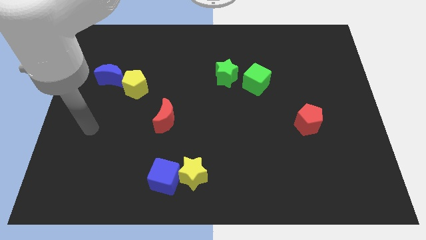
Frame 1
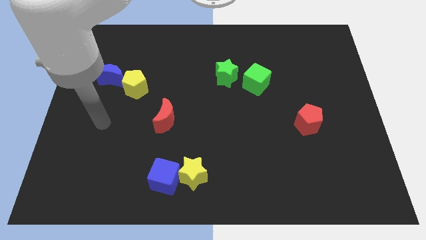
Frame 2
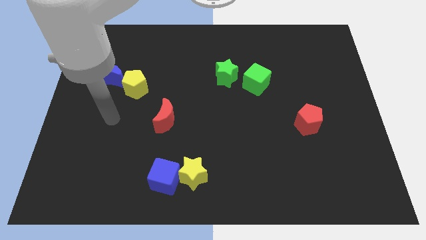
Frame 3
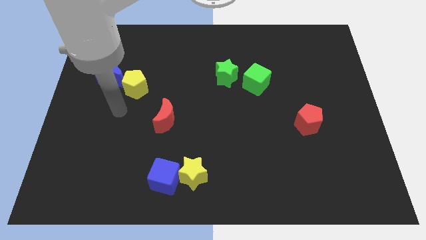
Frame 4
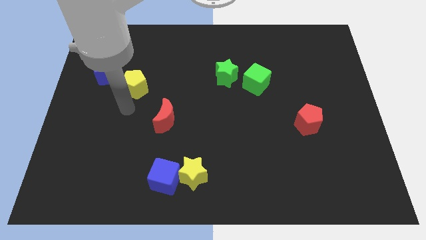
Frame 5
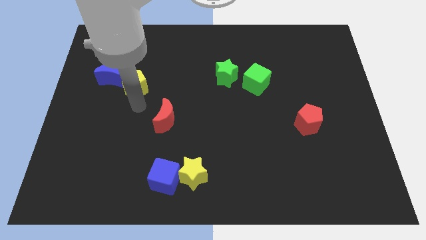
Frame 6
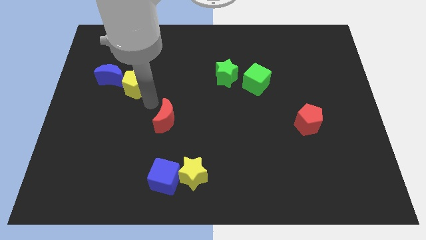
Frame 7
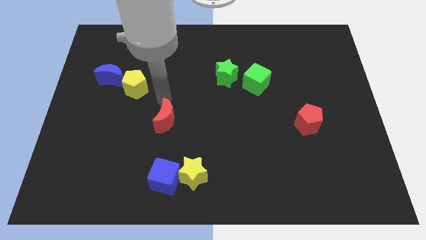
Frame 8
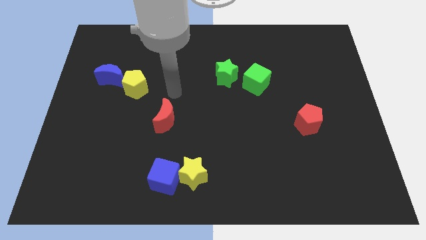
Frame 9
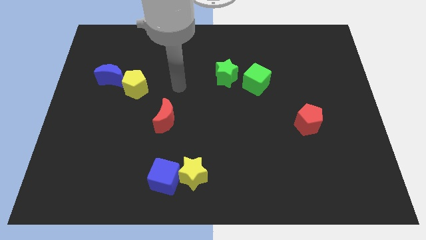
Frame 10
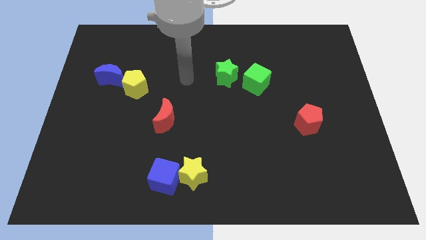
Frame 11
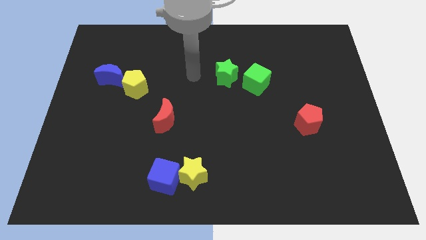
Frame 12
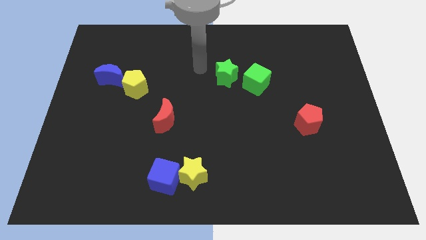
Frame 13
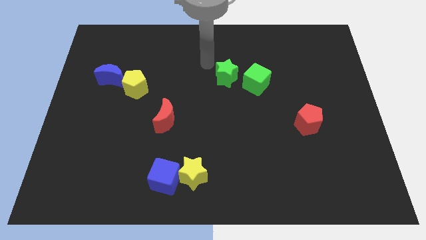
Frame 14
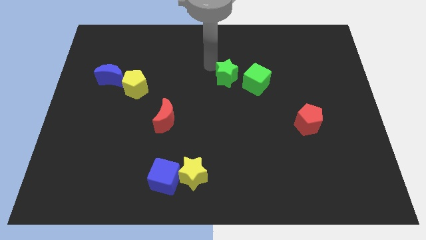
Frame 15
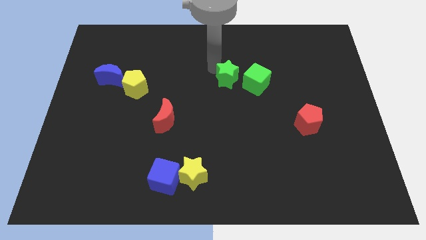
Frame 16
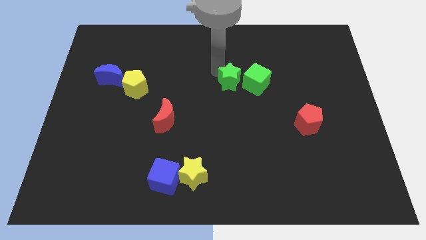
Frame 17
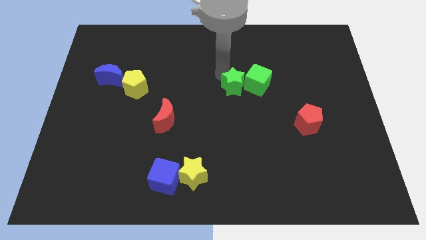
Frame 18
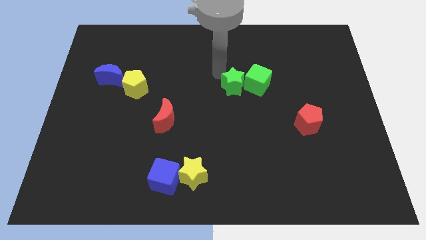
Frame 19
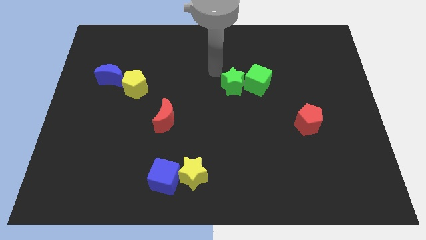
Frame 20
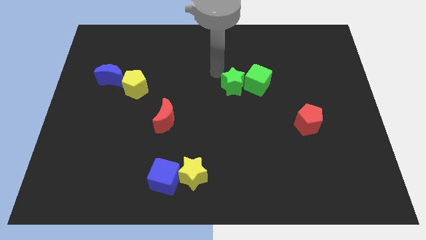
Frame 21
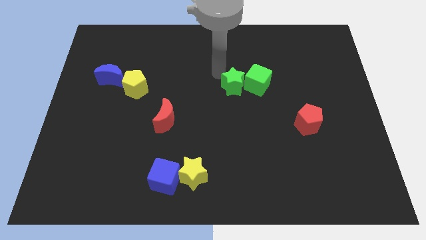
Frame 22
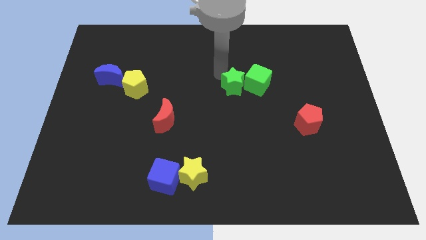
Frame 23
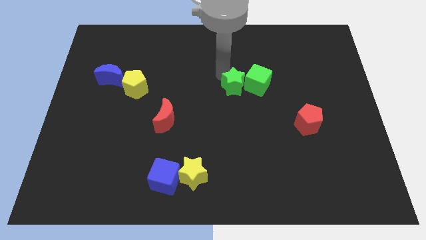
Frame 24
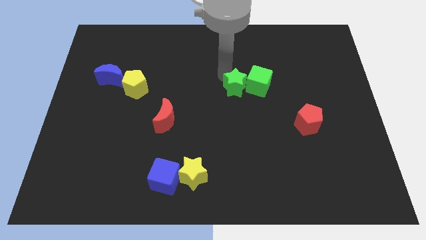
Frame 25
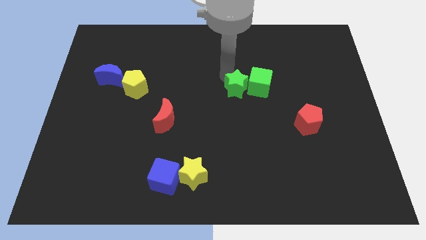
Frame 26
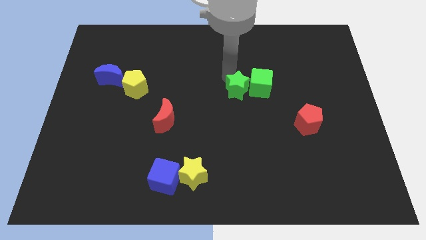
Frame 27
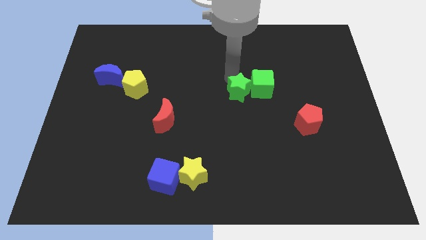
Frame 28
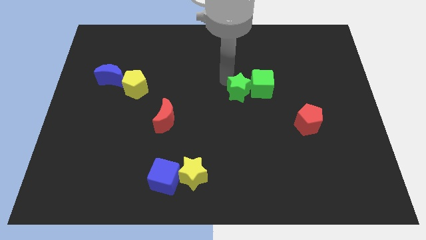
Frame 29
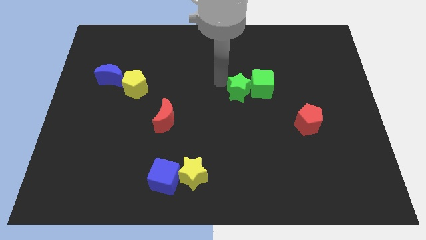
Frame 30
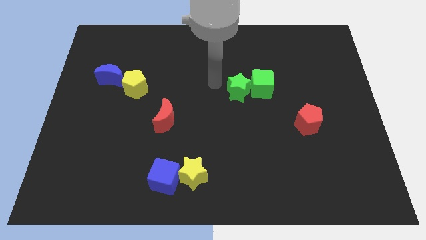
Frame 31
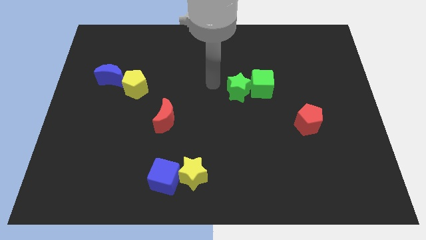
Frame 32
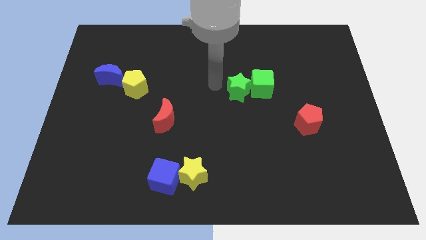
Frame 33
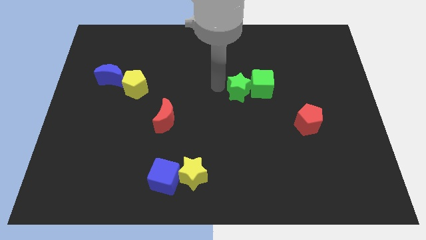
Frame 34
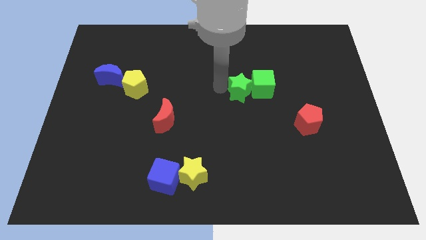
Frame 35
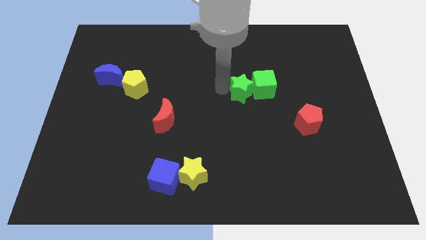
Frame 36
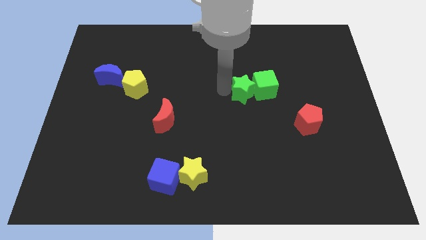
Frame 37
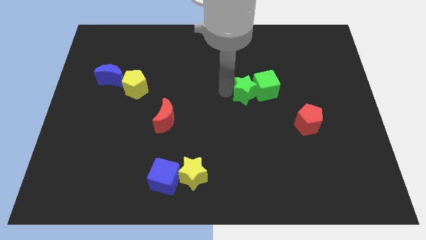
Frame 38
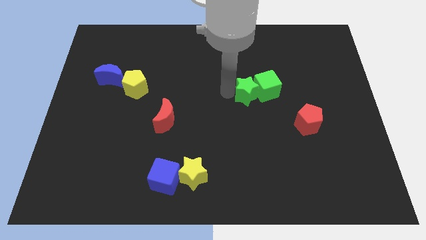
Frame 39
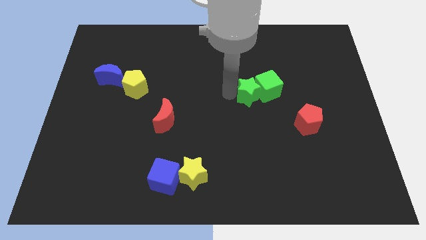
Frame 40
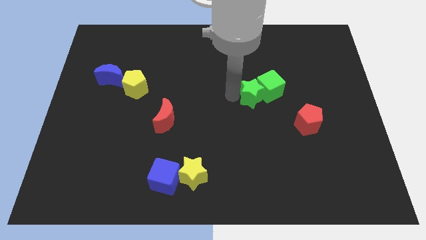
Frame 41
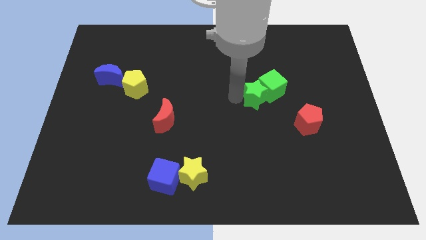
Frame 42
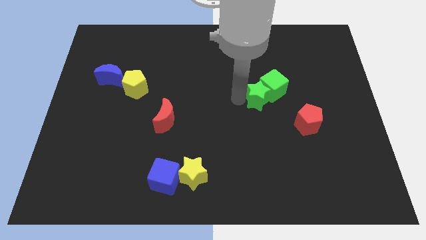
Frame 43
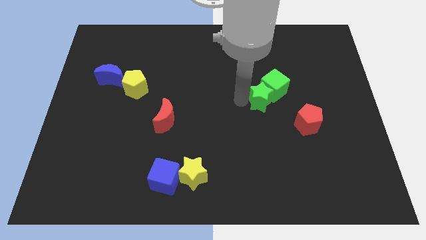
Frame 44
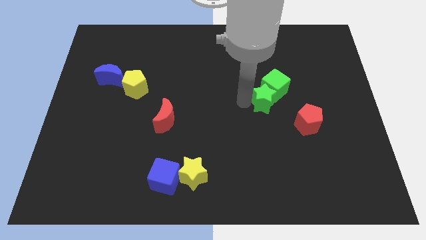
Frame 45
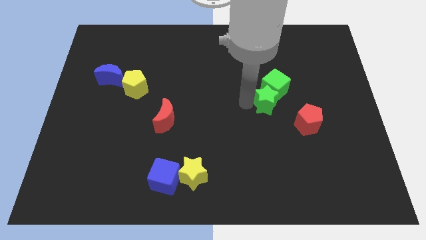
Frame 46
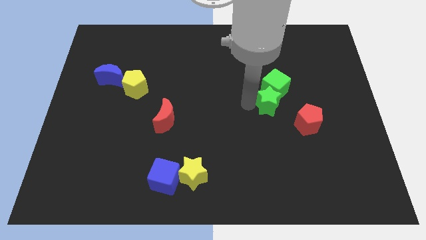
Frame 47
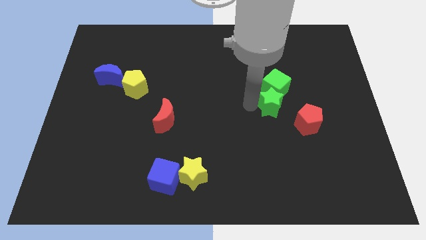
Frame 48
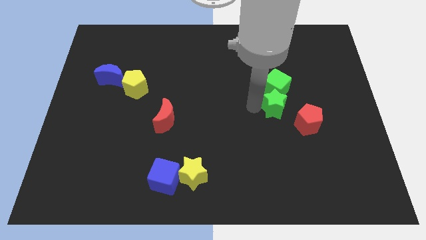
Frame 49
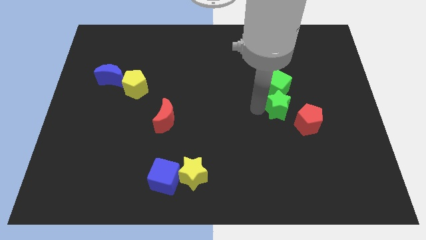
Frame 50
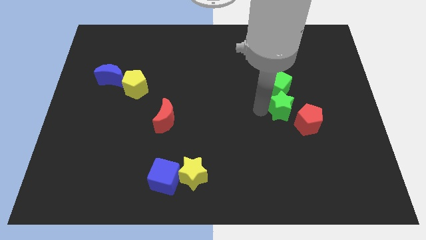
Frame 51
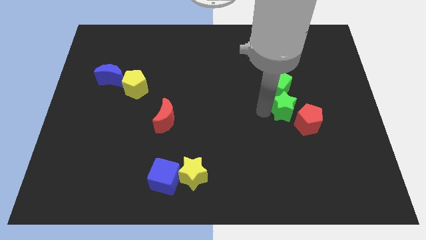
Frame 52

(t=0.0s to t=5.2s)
put the green star close to the red pentagon
